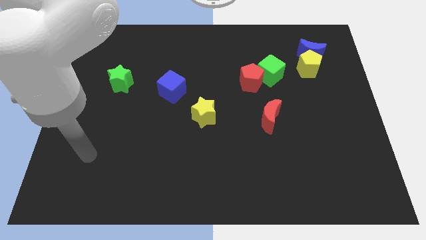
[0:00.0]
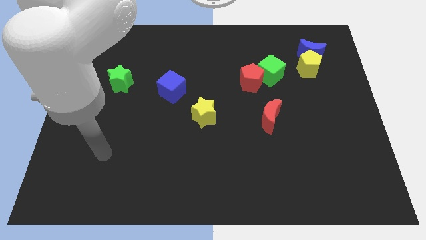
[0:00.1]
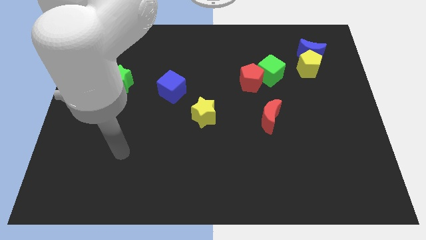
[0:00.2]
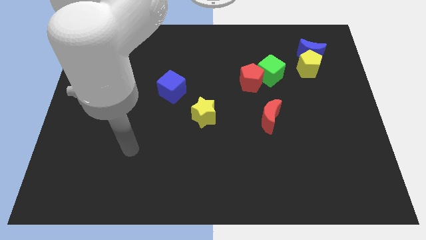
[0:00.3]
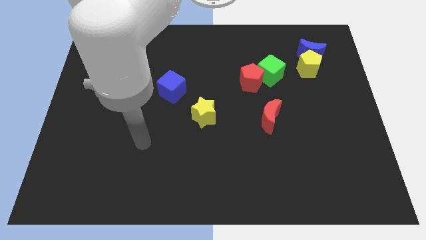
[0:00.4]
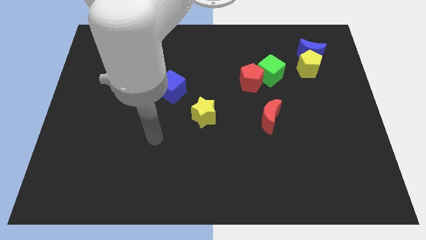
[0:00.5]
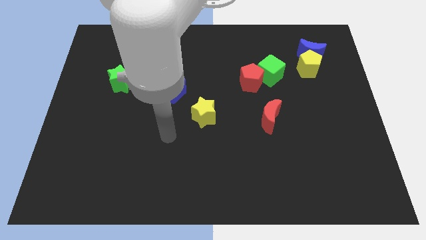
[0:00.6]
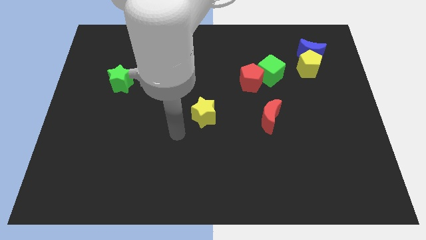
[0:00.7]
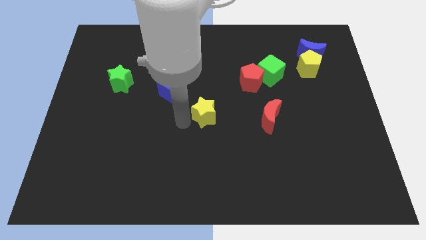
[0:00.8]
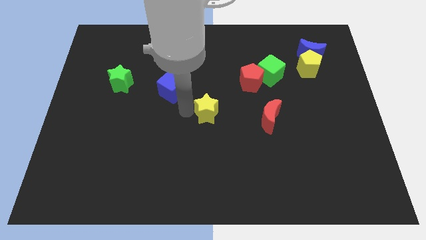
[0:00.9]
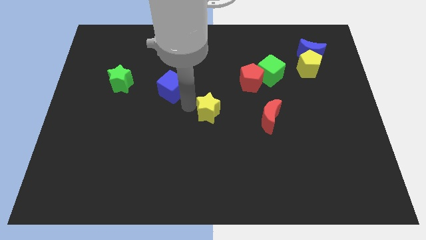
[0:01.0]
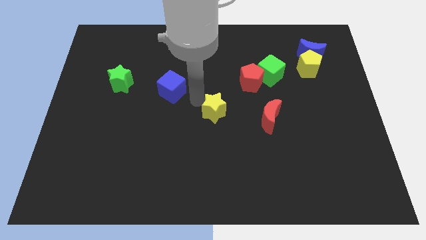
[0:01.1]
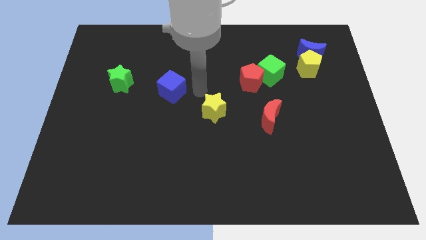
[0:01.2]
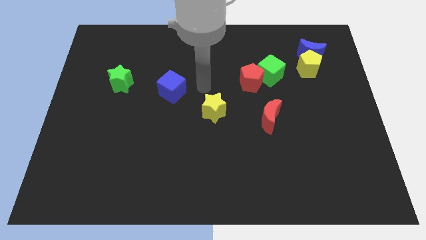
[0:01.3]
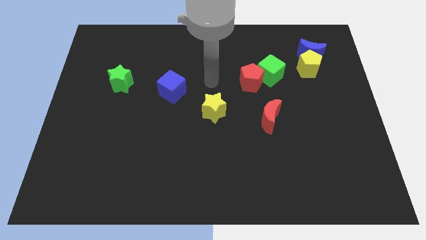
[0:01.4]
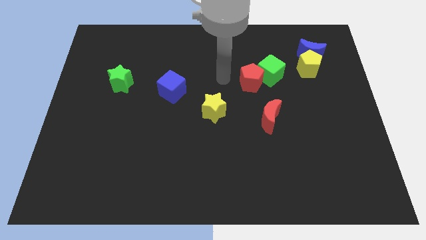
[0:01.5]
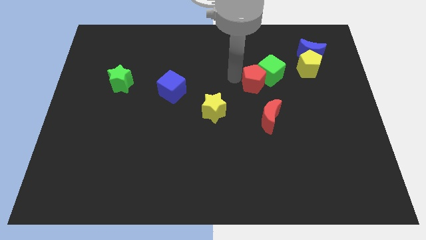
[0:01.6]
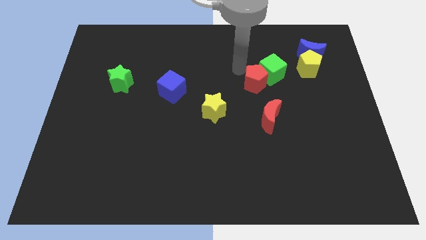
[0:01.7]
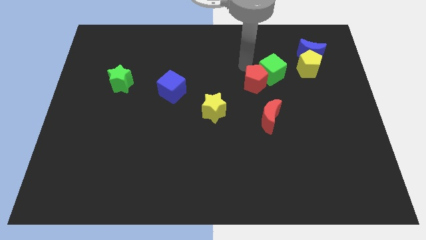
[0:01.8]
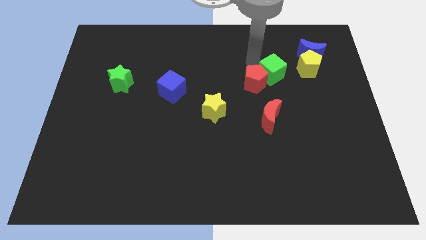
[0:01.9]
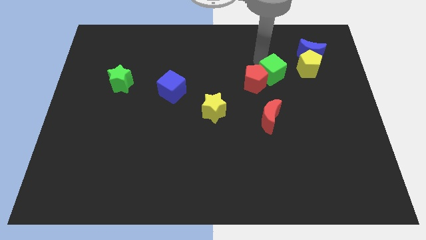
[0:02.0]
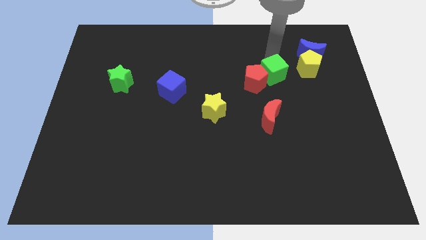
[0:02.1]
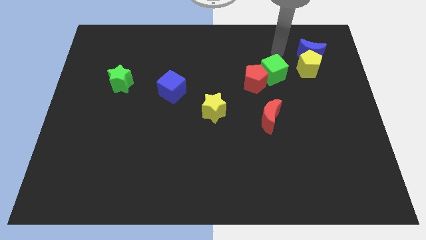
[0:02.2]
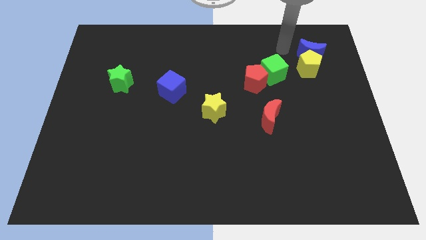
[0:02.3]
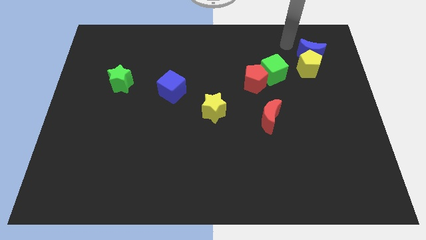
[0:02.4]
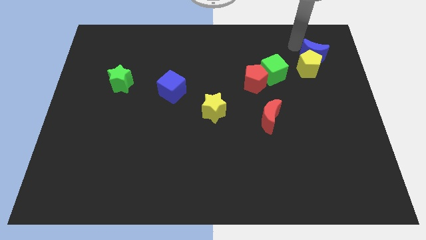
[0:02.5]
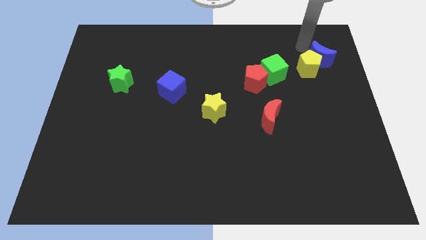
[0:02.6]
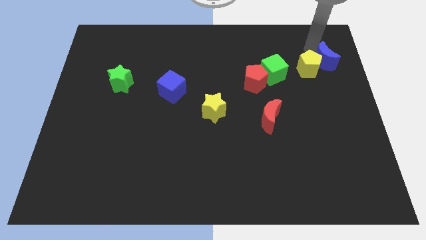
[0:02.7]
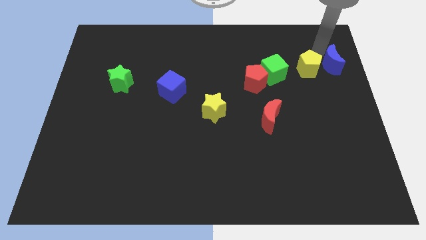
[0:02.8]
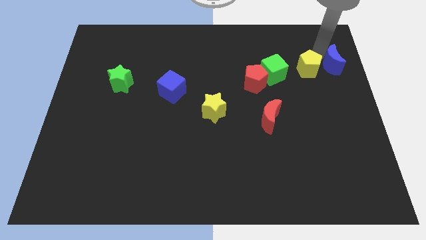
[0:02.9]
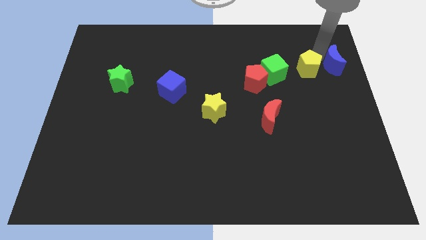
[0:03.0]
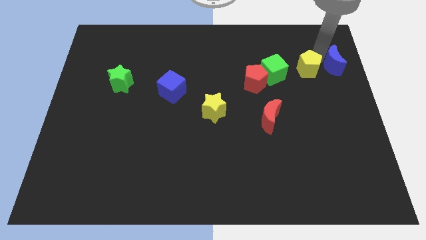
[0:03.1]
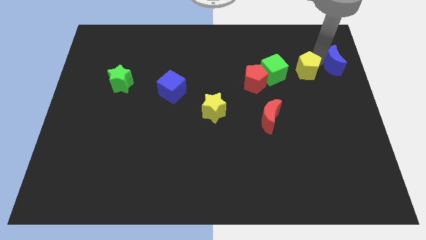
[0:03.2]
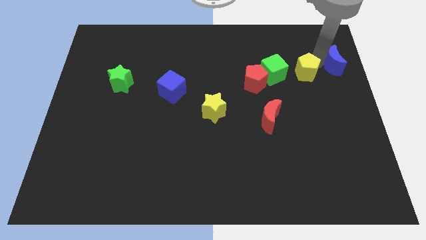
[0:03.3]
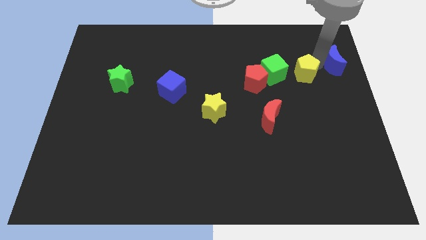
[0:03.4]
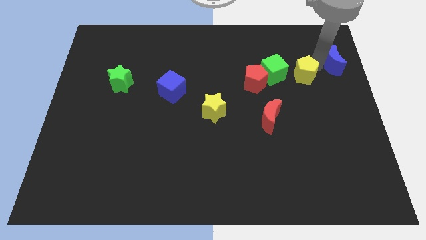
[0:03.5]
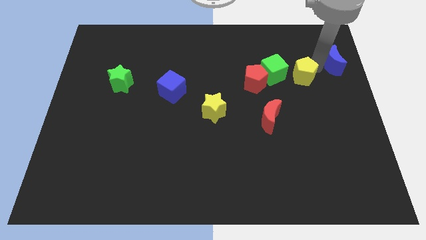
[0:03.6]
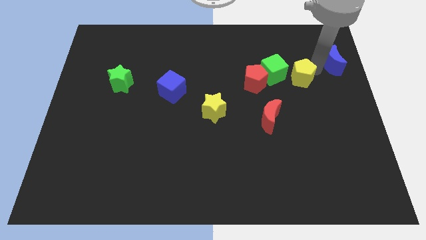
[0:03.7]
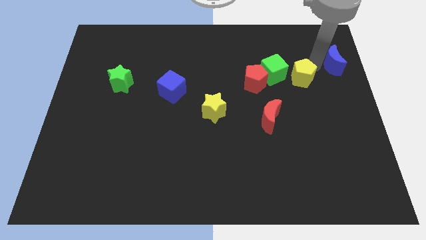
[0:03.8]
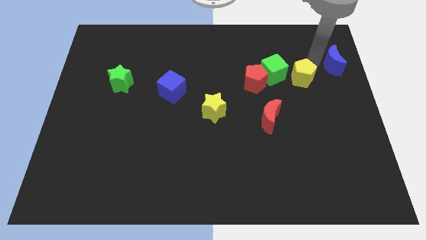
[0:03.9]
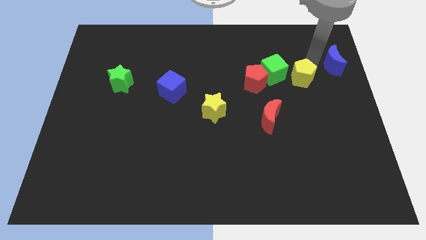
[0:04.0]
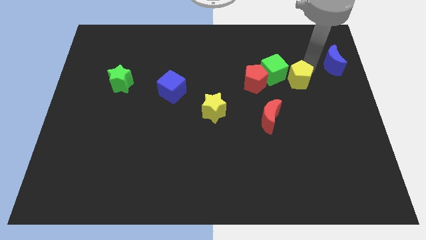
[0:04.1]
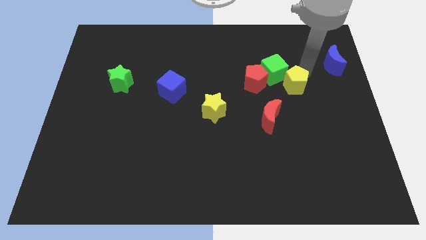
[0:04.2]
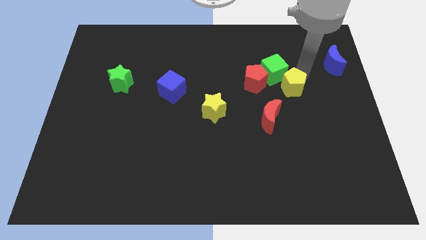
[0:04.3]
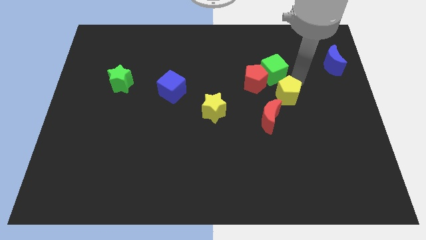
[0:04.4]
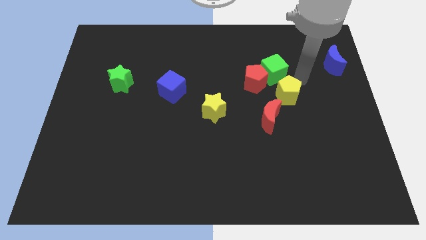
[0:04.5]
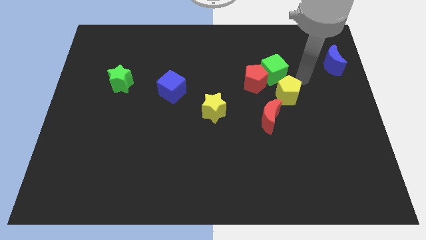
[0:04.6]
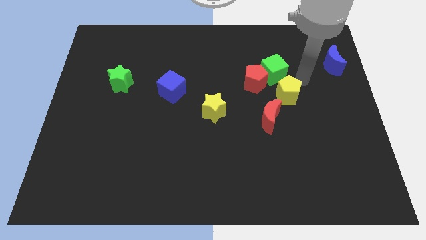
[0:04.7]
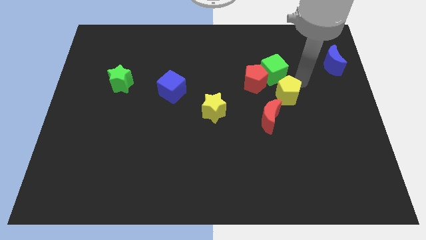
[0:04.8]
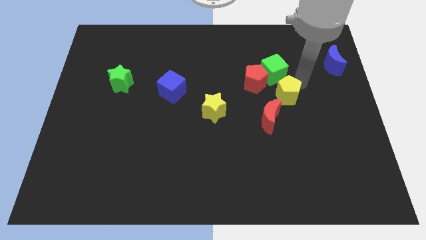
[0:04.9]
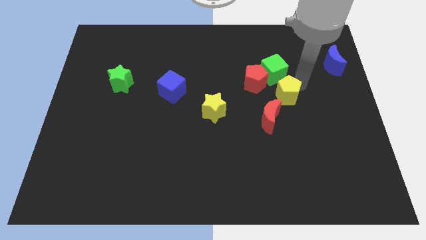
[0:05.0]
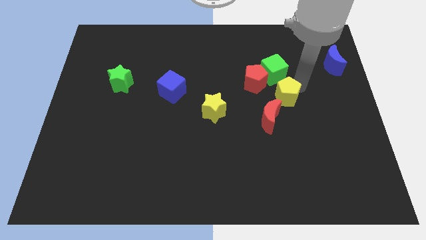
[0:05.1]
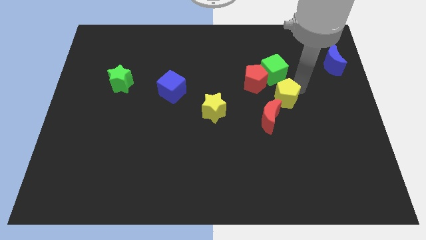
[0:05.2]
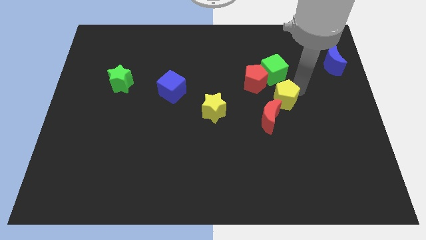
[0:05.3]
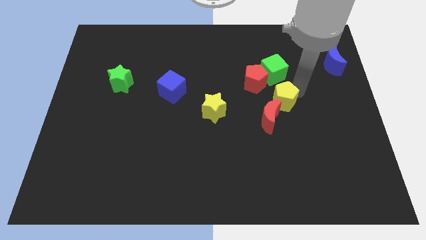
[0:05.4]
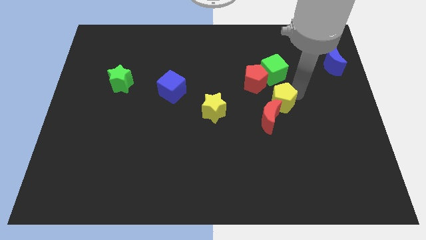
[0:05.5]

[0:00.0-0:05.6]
push the yellow pentagon next to the red moon

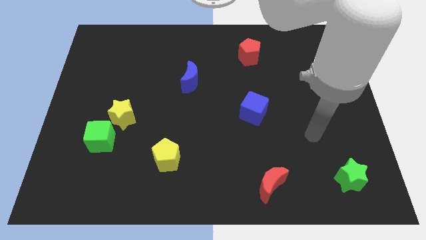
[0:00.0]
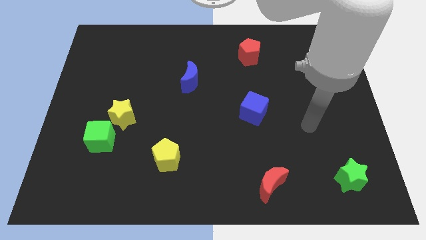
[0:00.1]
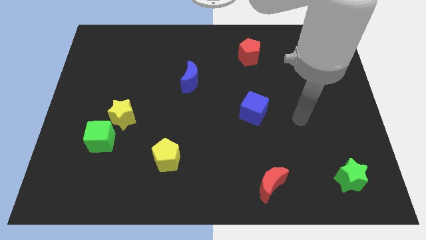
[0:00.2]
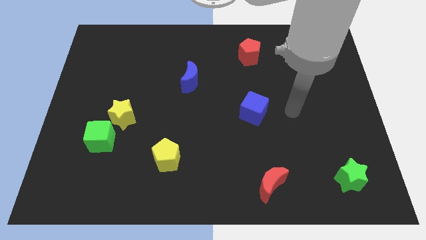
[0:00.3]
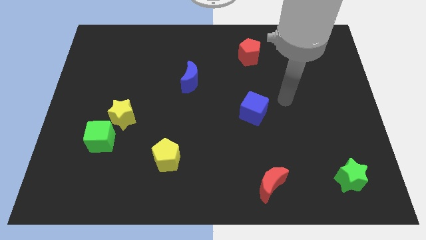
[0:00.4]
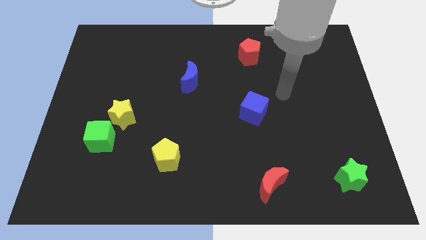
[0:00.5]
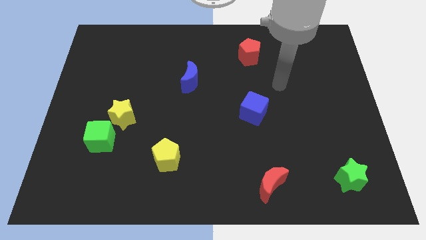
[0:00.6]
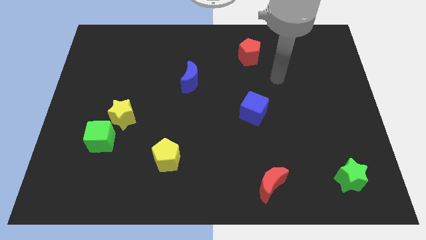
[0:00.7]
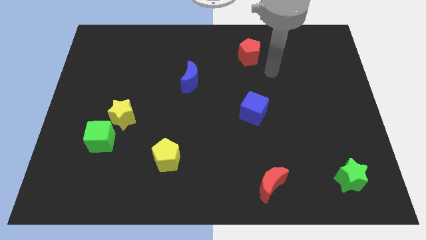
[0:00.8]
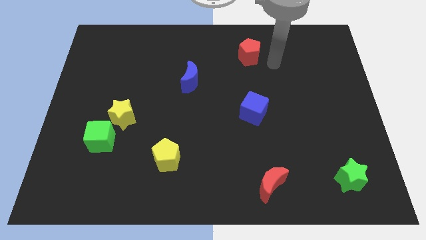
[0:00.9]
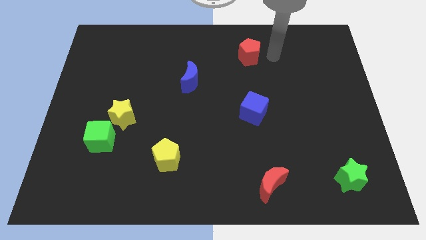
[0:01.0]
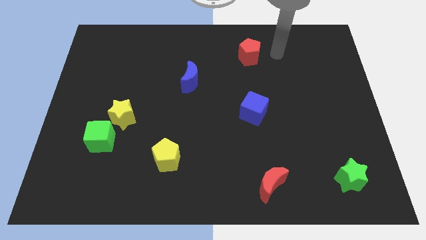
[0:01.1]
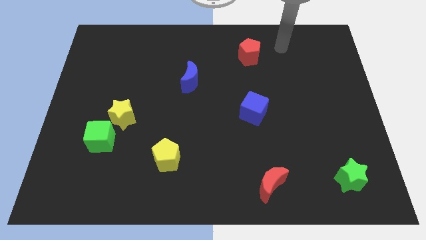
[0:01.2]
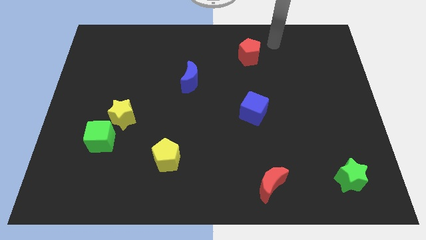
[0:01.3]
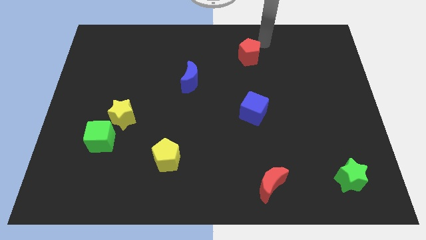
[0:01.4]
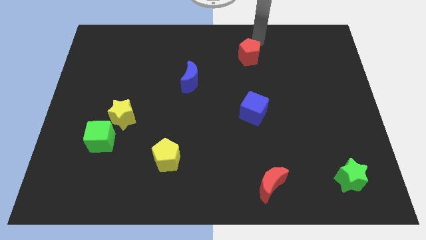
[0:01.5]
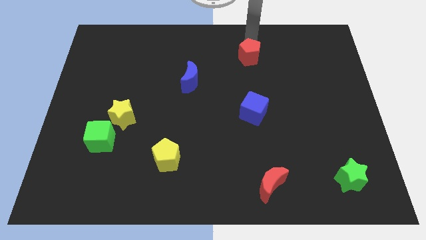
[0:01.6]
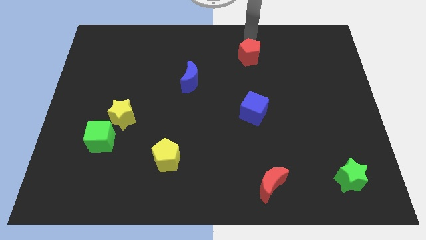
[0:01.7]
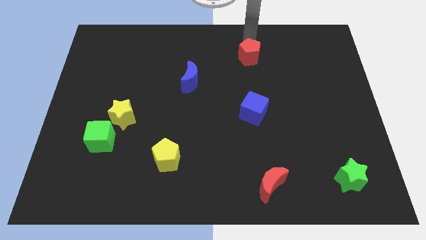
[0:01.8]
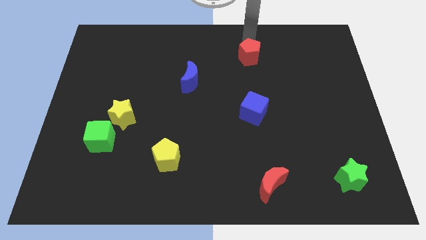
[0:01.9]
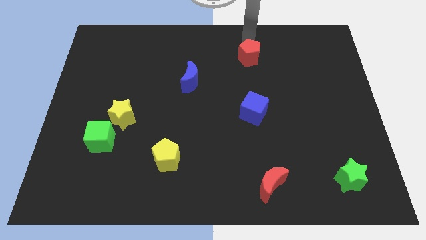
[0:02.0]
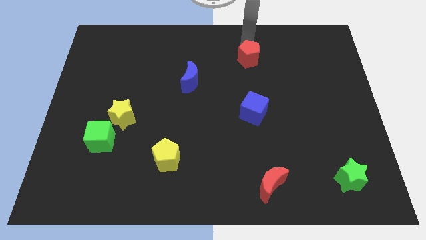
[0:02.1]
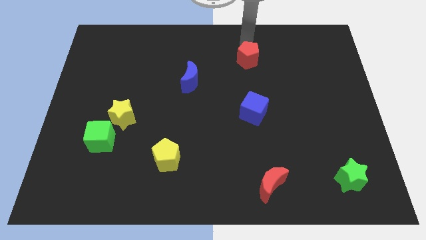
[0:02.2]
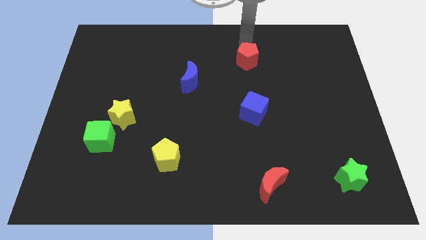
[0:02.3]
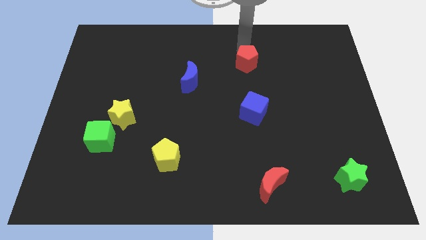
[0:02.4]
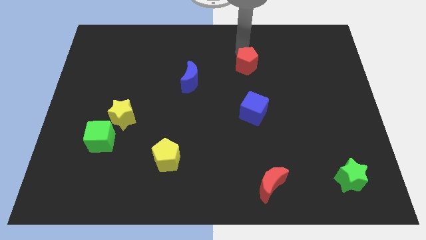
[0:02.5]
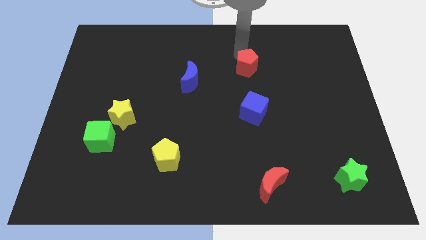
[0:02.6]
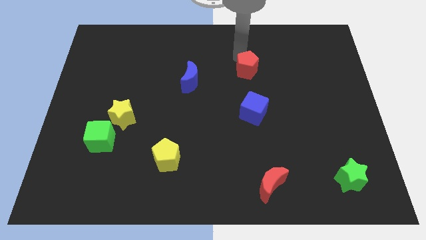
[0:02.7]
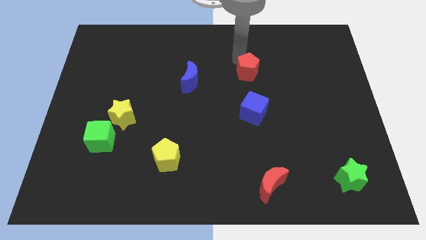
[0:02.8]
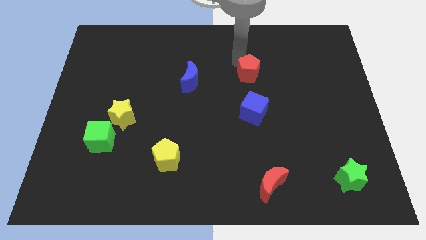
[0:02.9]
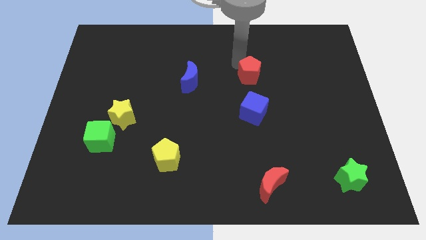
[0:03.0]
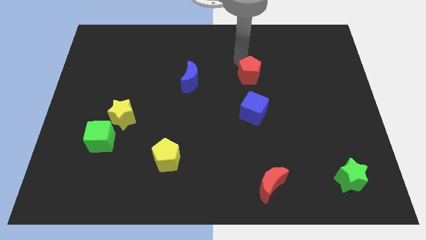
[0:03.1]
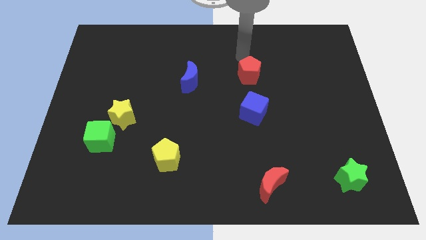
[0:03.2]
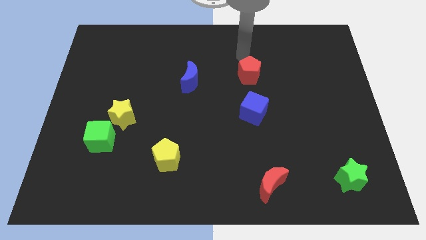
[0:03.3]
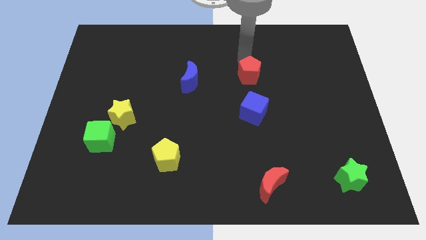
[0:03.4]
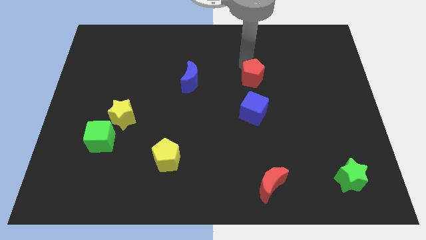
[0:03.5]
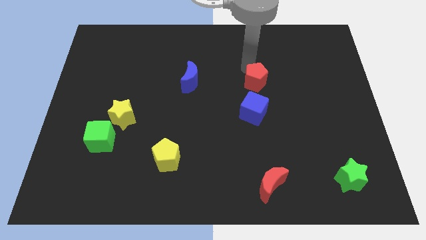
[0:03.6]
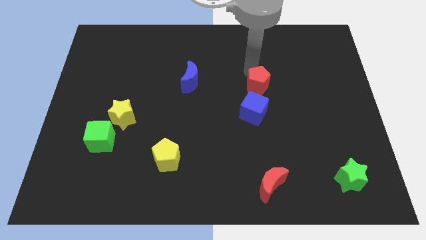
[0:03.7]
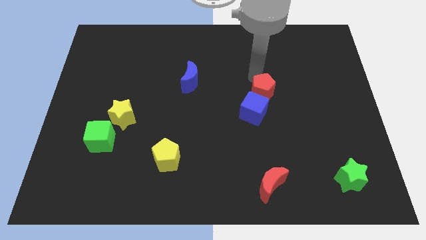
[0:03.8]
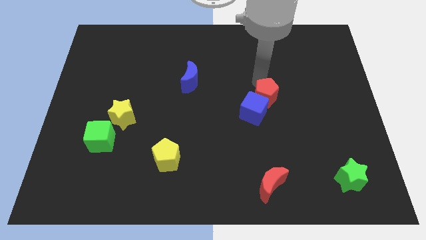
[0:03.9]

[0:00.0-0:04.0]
push the red pentagon close to the blue cube
